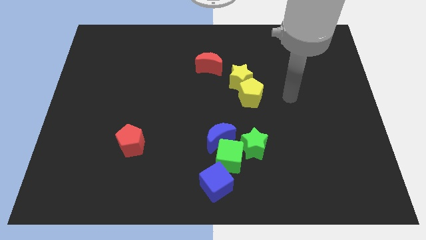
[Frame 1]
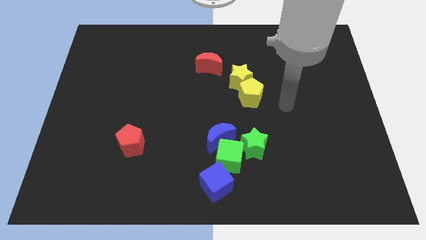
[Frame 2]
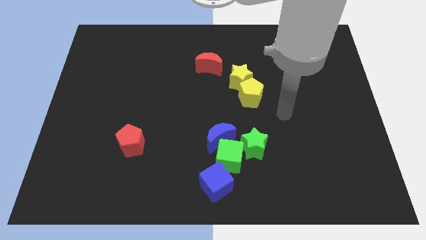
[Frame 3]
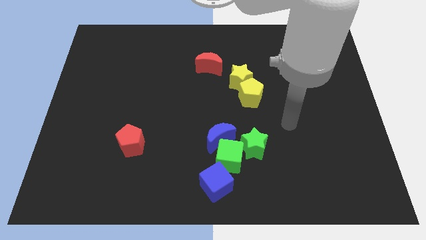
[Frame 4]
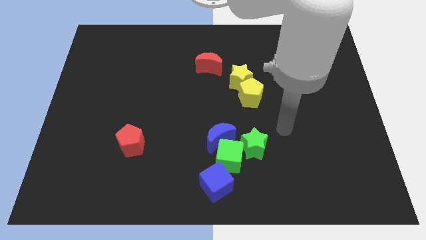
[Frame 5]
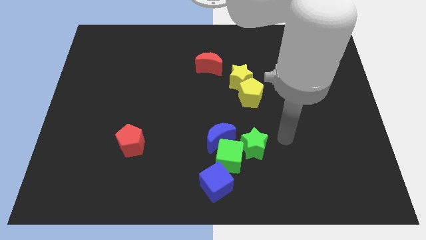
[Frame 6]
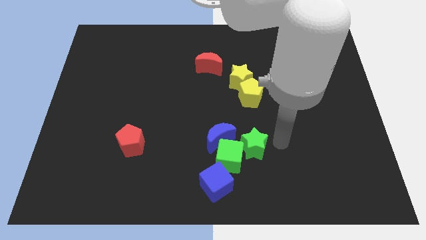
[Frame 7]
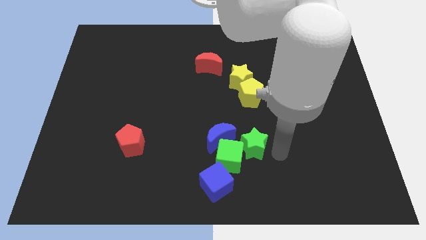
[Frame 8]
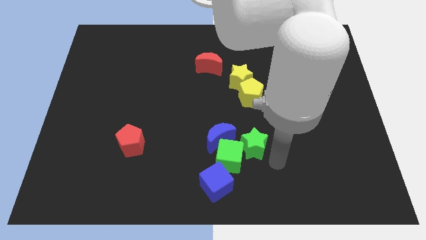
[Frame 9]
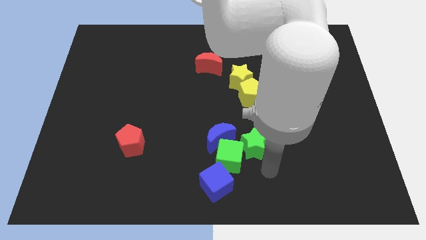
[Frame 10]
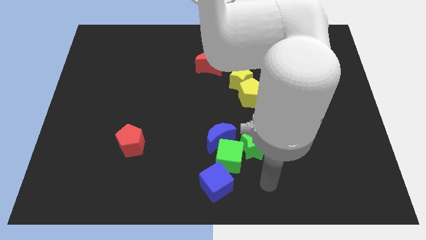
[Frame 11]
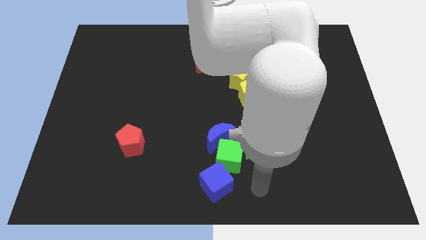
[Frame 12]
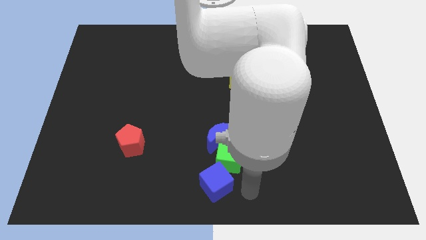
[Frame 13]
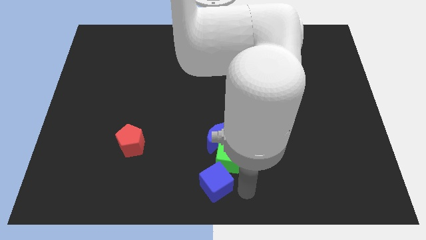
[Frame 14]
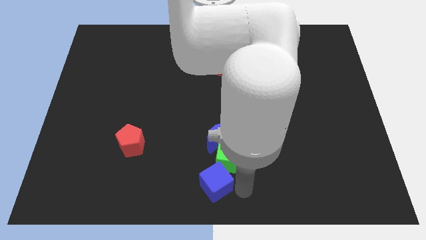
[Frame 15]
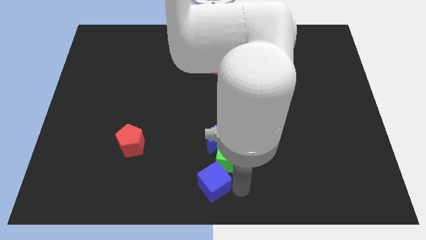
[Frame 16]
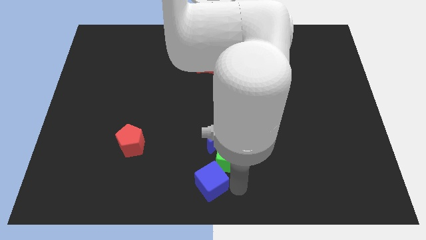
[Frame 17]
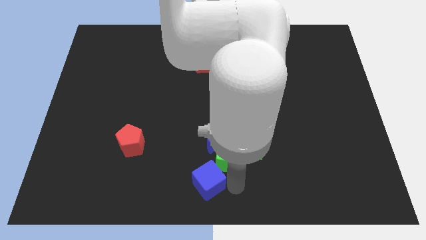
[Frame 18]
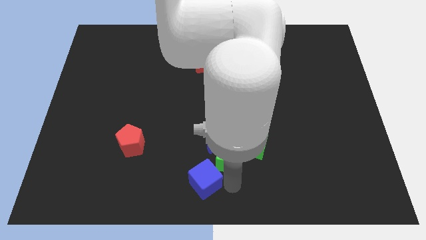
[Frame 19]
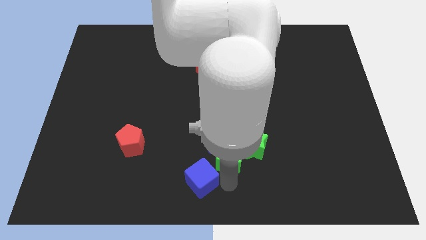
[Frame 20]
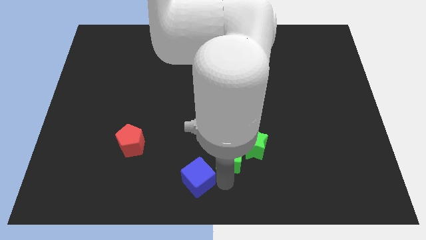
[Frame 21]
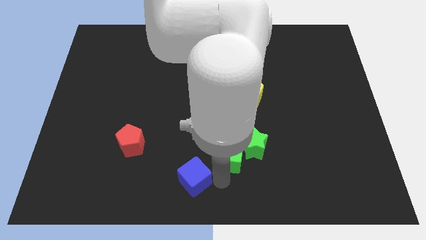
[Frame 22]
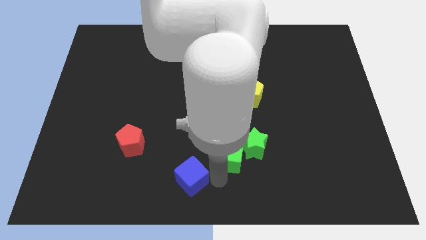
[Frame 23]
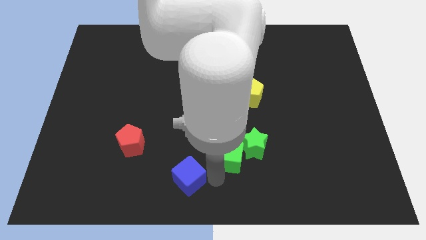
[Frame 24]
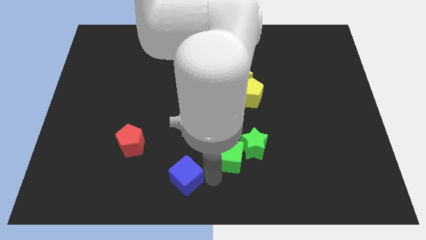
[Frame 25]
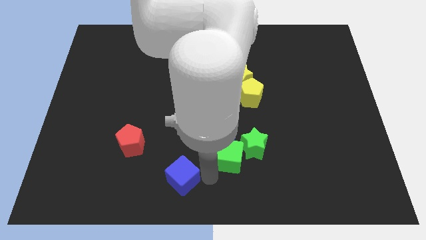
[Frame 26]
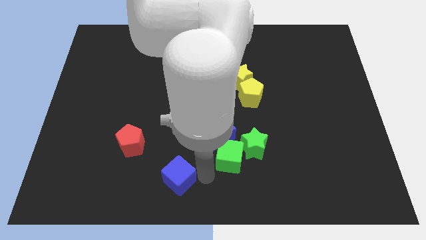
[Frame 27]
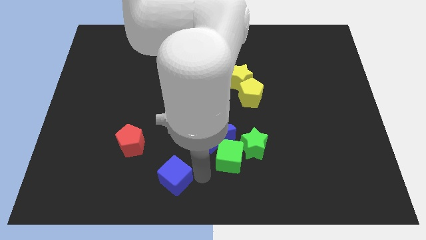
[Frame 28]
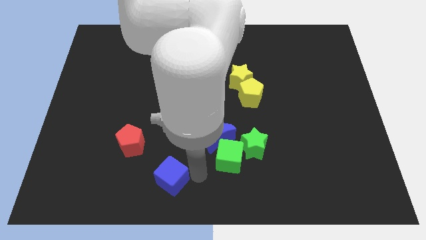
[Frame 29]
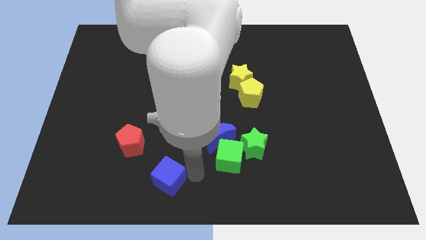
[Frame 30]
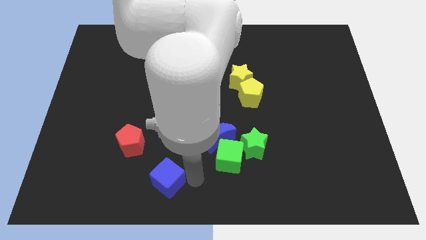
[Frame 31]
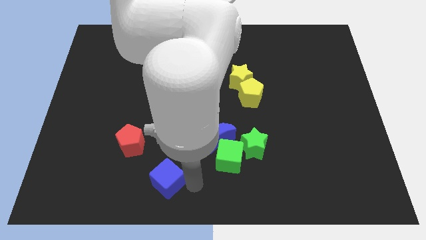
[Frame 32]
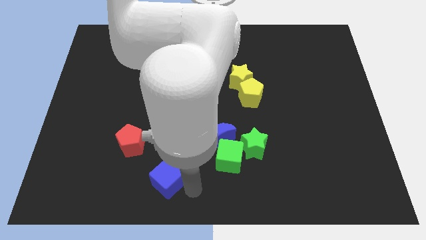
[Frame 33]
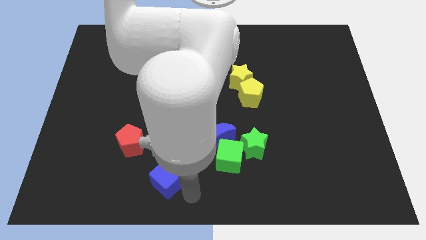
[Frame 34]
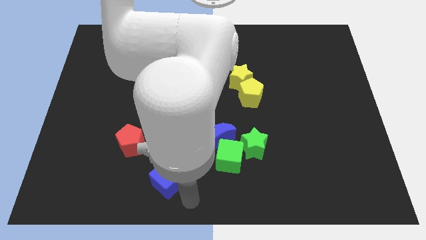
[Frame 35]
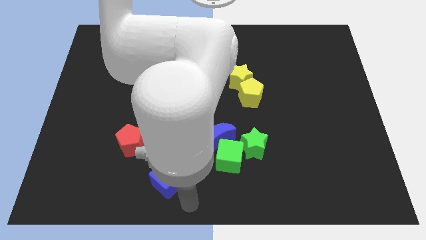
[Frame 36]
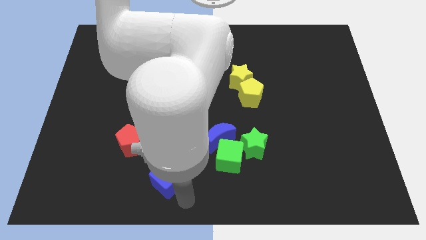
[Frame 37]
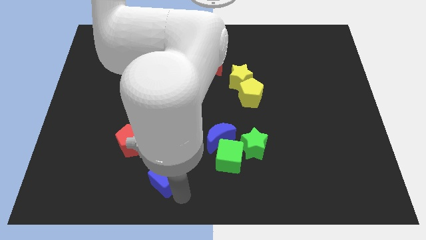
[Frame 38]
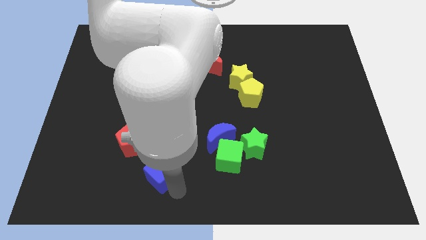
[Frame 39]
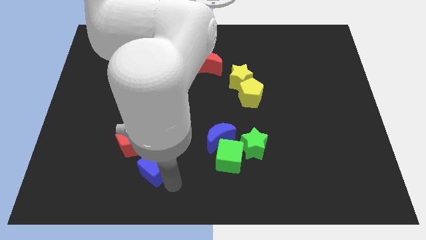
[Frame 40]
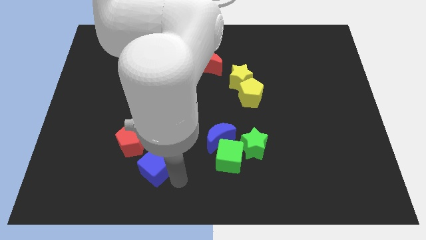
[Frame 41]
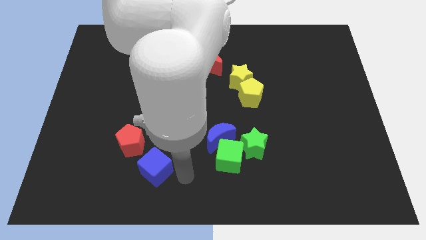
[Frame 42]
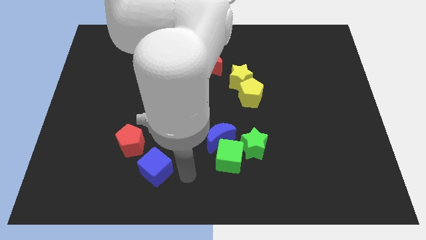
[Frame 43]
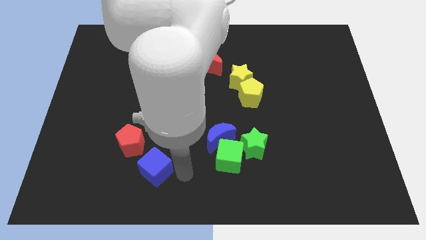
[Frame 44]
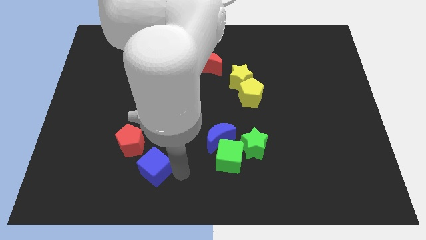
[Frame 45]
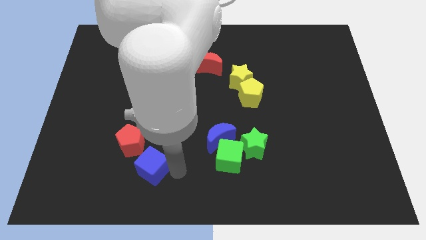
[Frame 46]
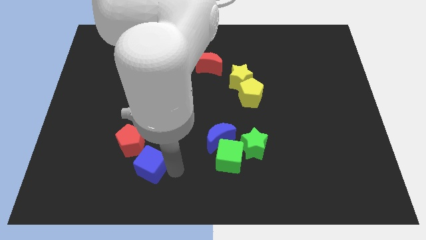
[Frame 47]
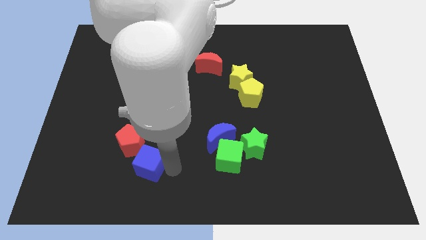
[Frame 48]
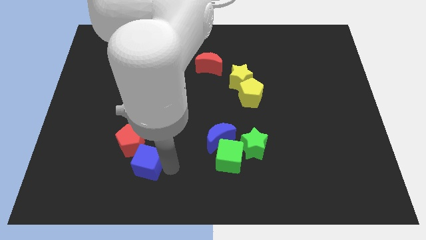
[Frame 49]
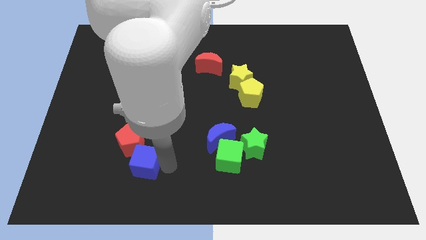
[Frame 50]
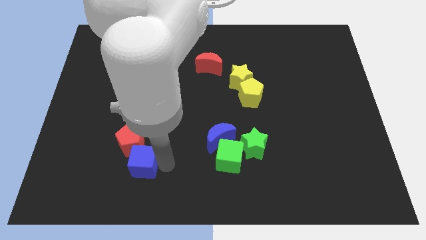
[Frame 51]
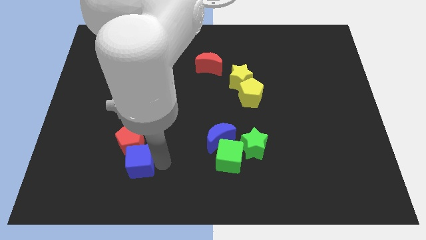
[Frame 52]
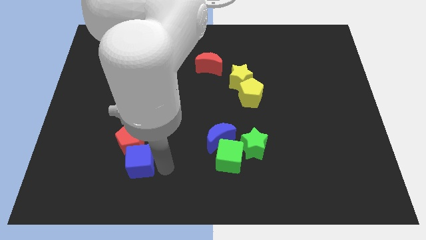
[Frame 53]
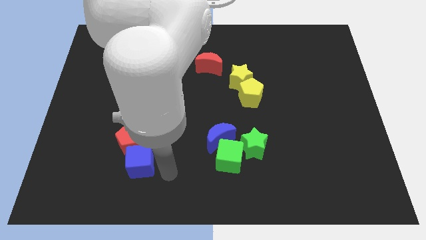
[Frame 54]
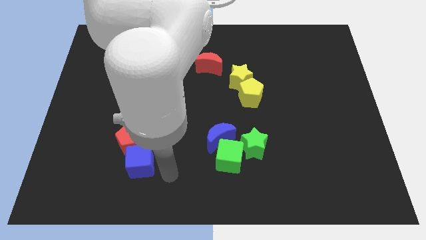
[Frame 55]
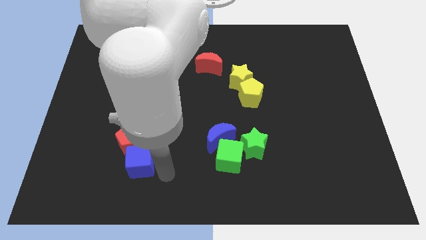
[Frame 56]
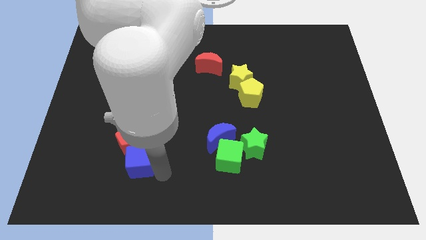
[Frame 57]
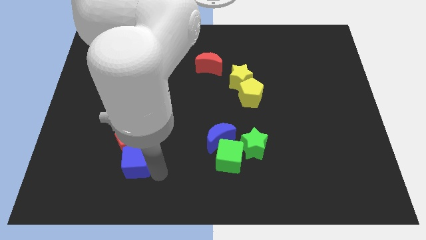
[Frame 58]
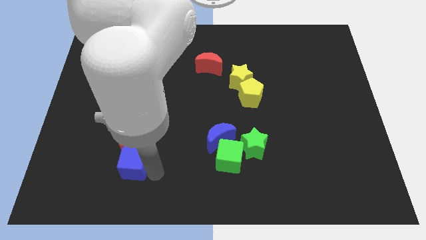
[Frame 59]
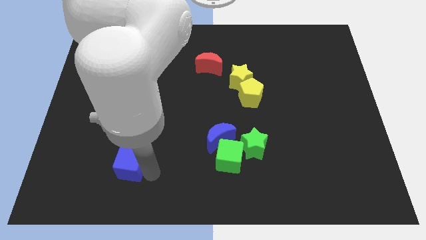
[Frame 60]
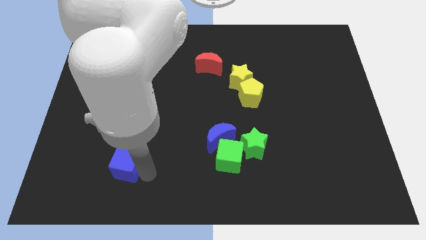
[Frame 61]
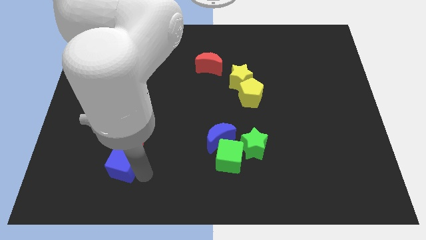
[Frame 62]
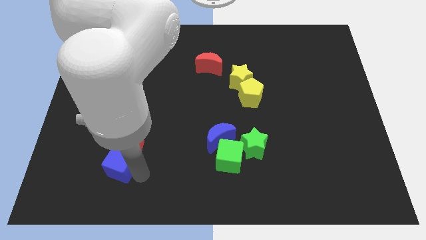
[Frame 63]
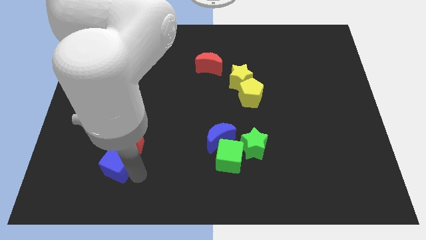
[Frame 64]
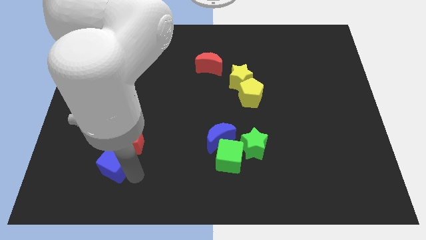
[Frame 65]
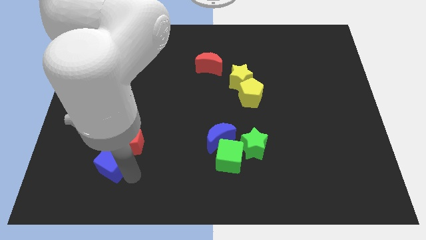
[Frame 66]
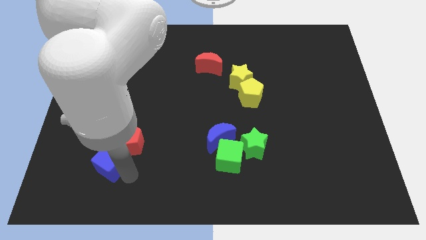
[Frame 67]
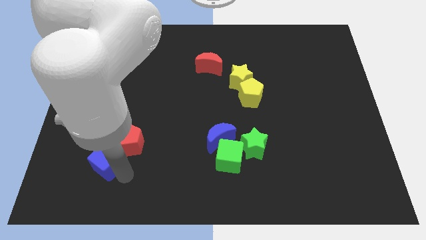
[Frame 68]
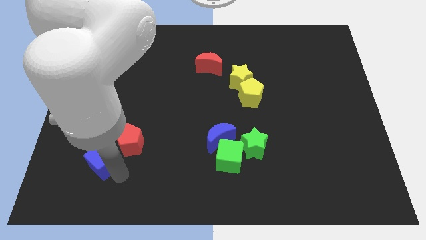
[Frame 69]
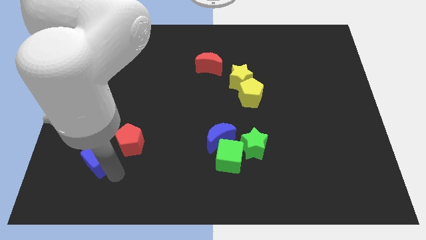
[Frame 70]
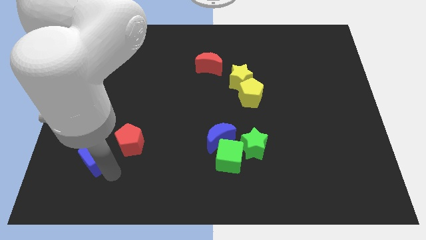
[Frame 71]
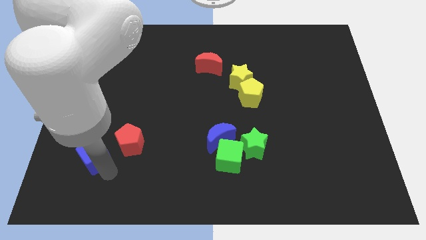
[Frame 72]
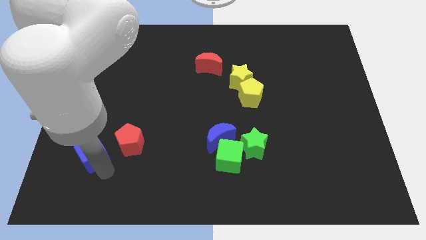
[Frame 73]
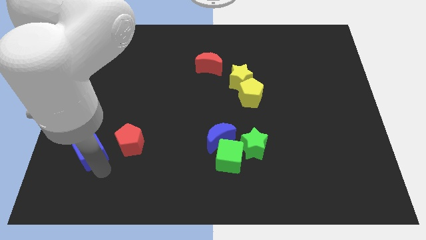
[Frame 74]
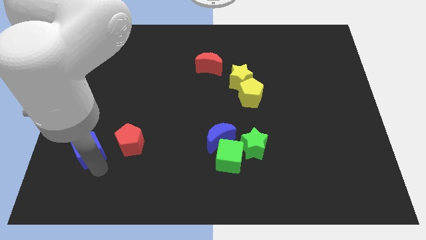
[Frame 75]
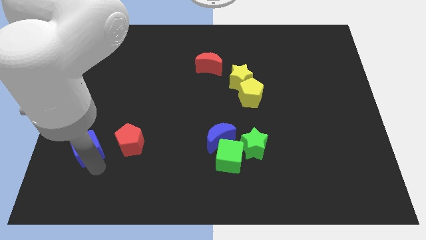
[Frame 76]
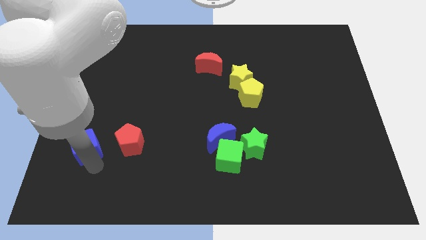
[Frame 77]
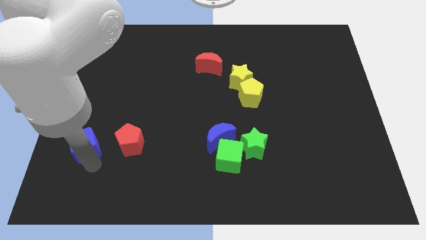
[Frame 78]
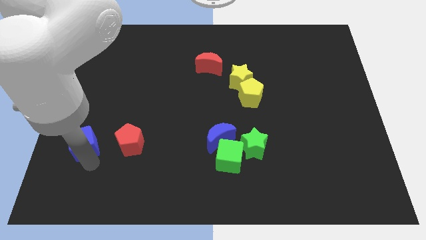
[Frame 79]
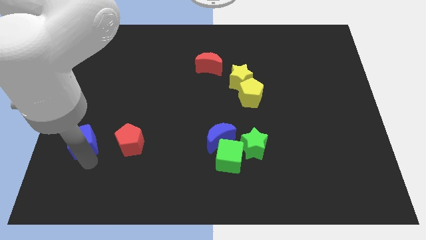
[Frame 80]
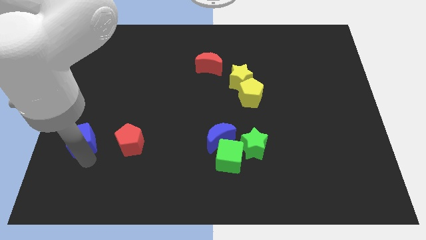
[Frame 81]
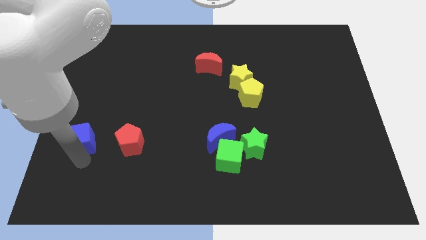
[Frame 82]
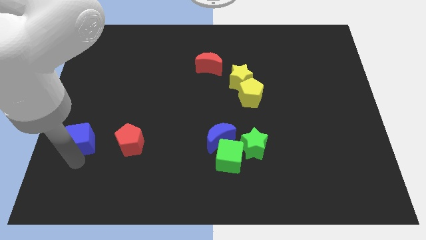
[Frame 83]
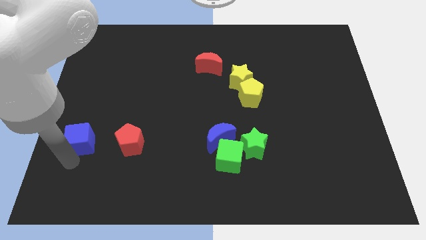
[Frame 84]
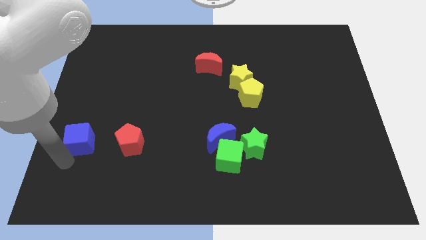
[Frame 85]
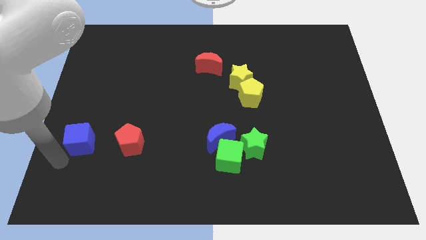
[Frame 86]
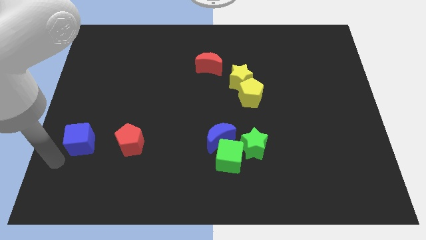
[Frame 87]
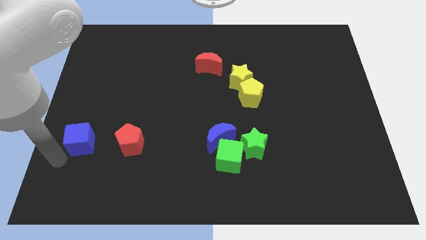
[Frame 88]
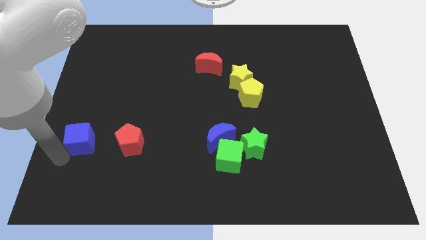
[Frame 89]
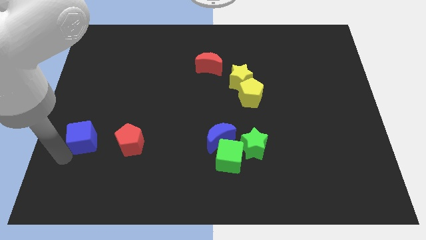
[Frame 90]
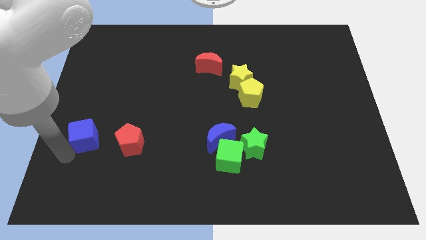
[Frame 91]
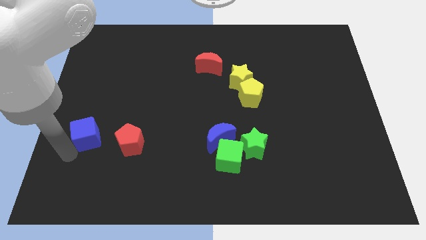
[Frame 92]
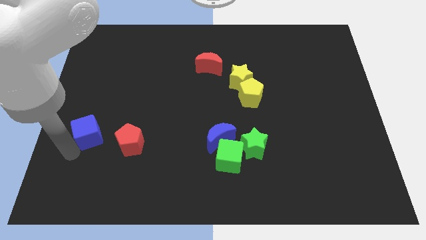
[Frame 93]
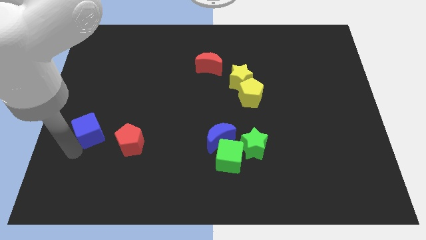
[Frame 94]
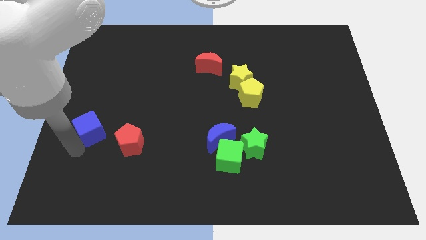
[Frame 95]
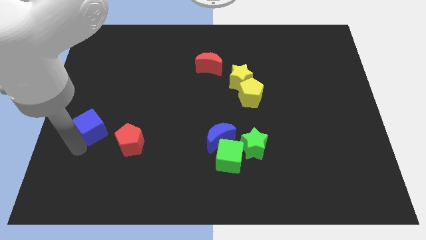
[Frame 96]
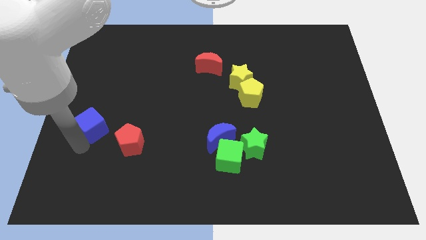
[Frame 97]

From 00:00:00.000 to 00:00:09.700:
move the blue cube to the left side
